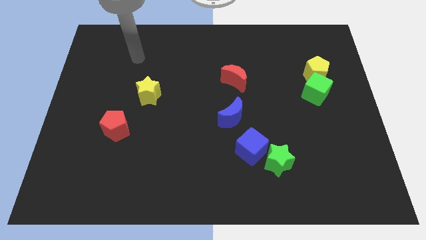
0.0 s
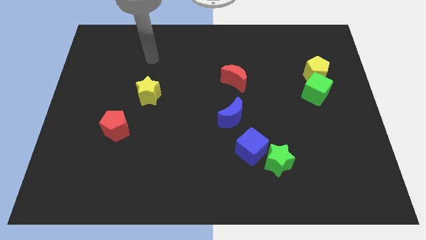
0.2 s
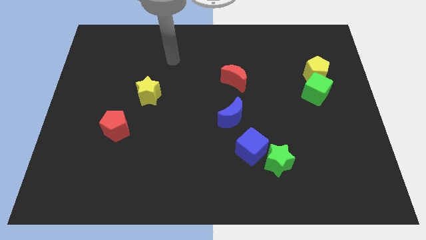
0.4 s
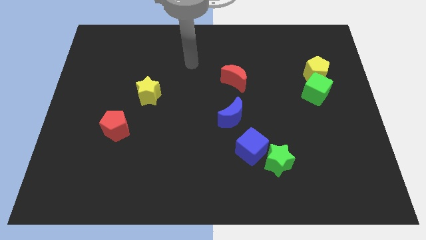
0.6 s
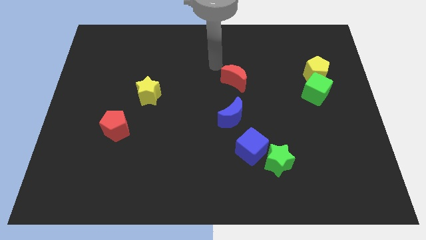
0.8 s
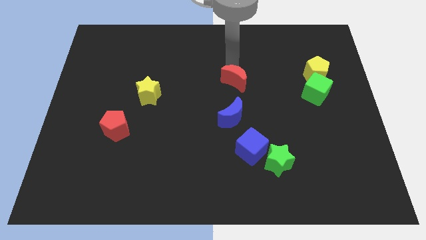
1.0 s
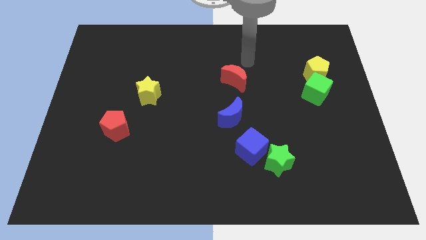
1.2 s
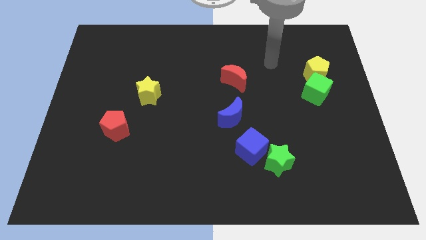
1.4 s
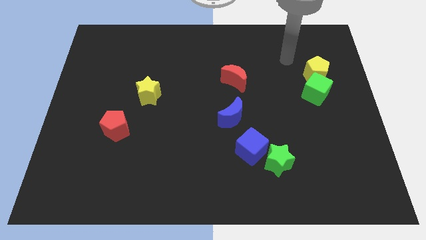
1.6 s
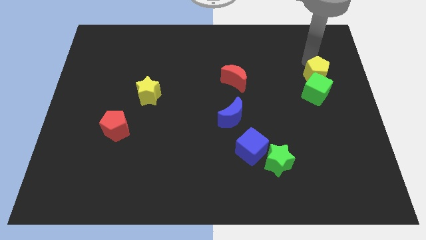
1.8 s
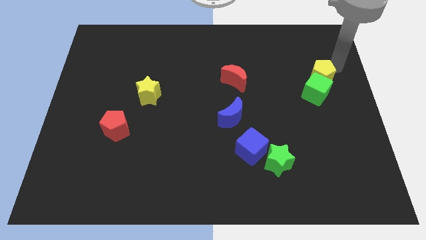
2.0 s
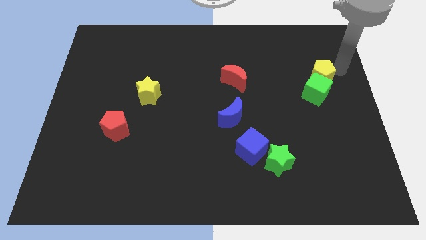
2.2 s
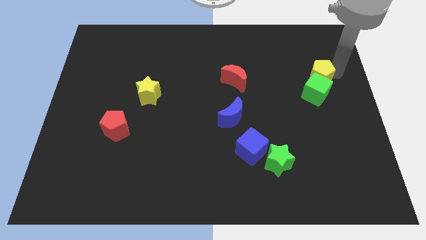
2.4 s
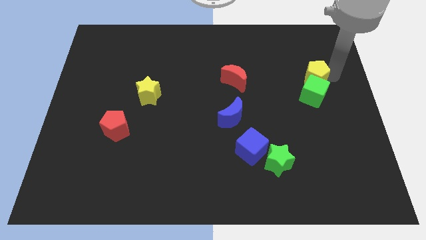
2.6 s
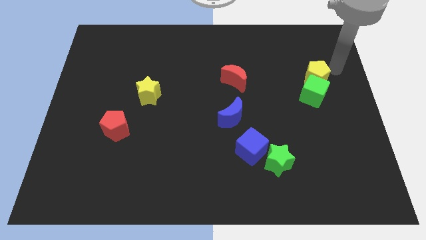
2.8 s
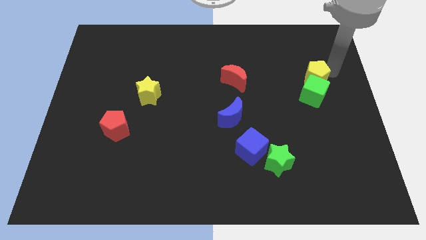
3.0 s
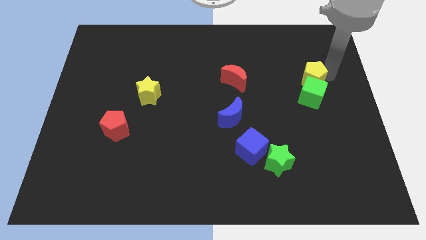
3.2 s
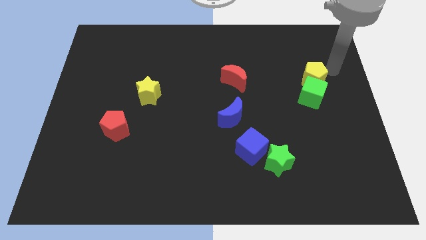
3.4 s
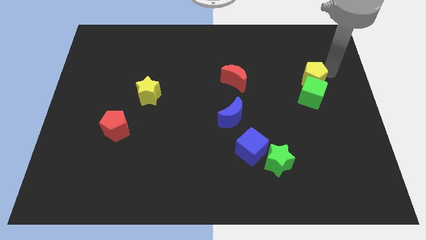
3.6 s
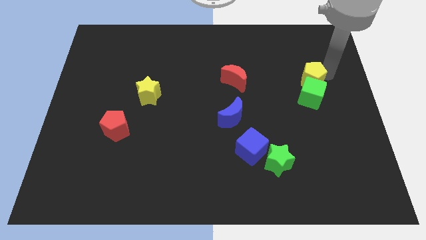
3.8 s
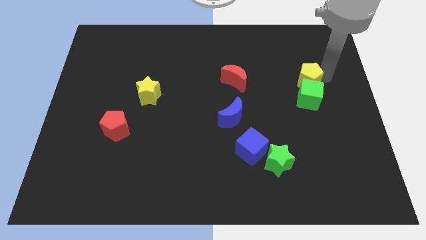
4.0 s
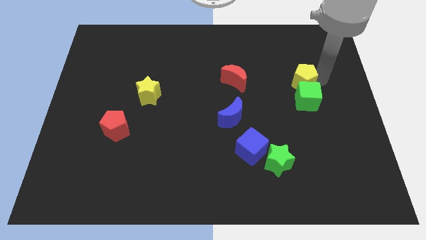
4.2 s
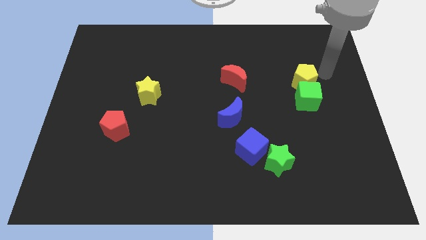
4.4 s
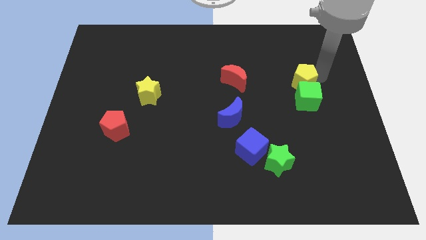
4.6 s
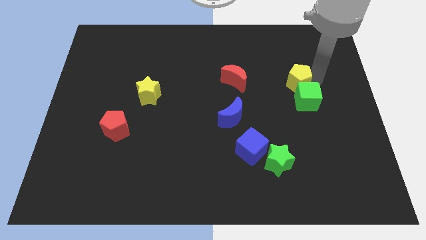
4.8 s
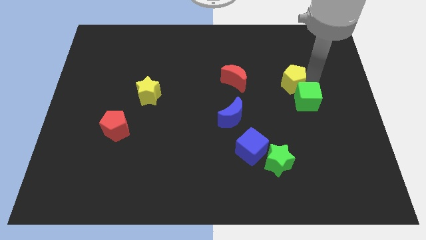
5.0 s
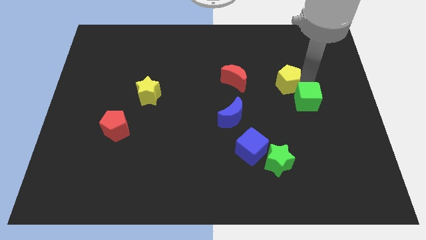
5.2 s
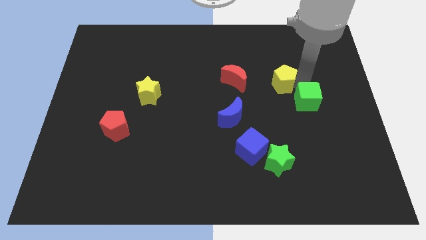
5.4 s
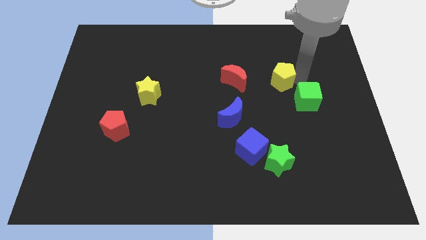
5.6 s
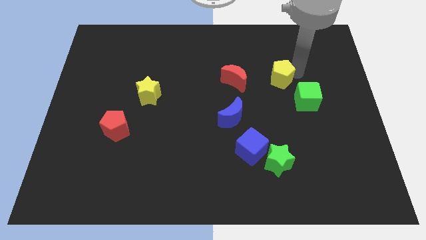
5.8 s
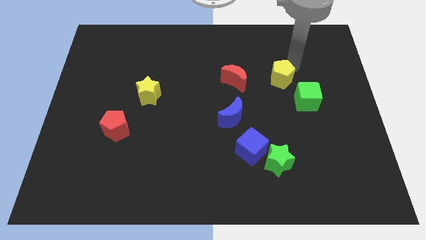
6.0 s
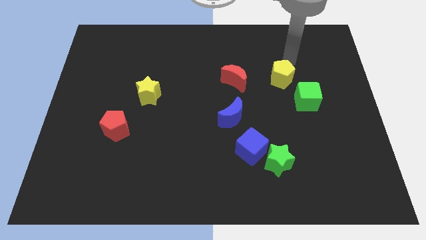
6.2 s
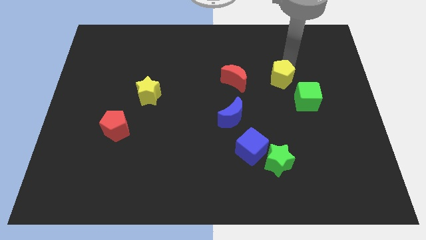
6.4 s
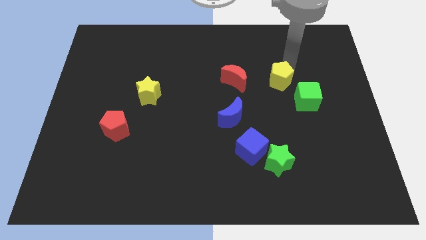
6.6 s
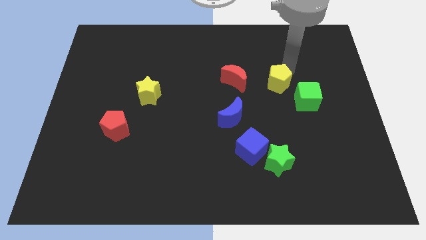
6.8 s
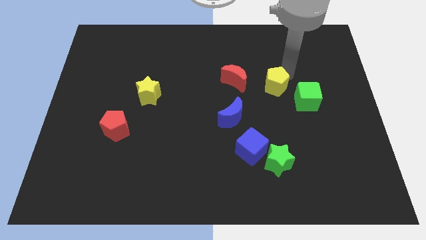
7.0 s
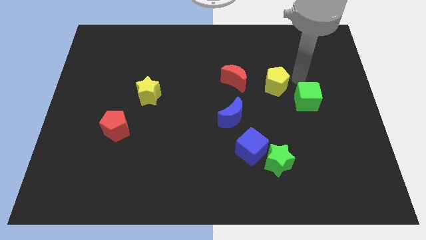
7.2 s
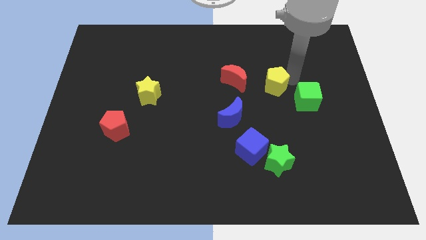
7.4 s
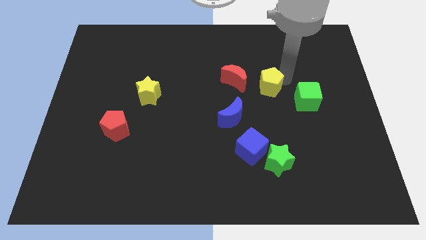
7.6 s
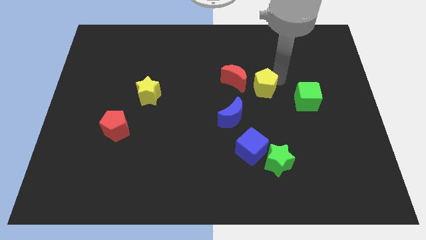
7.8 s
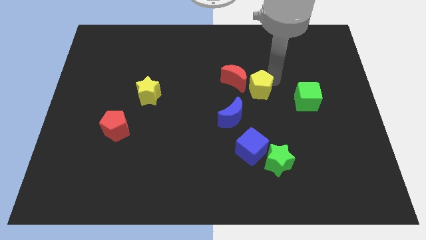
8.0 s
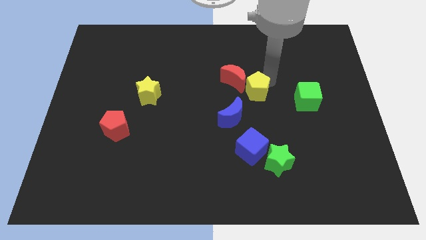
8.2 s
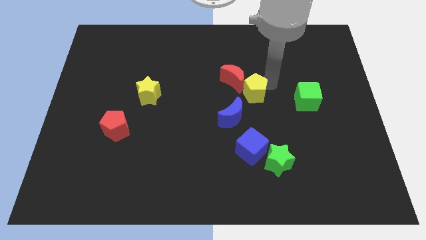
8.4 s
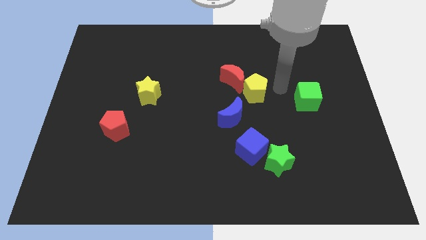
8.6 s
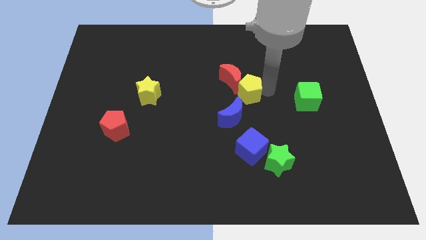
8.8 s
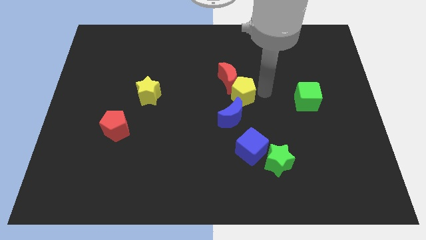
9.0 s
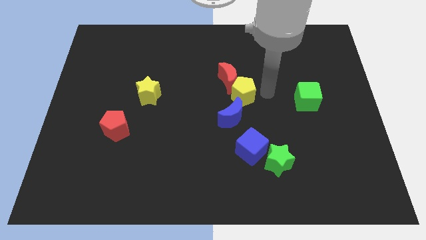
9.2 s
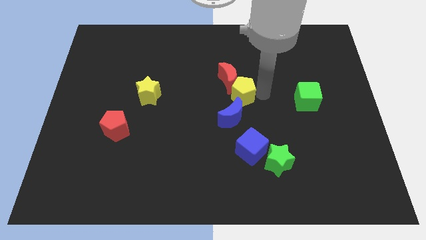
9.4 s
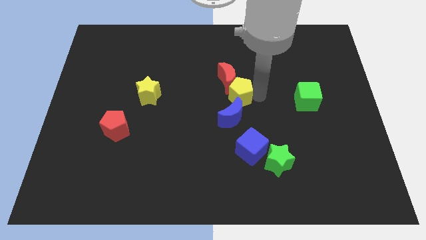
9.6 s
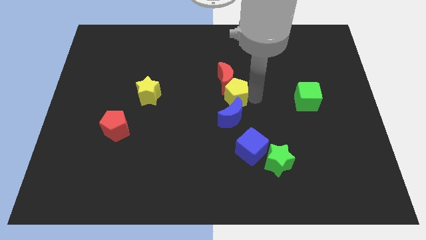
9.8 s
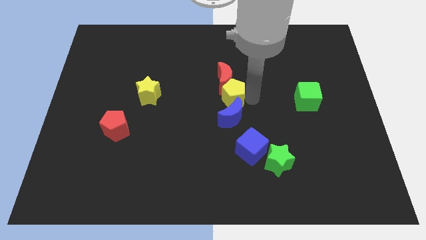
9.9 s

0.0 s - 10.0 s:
push the yellow pentagon to the top left of the blue moon

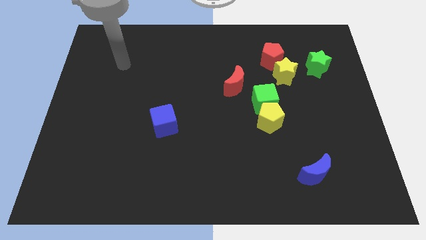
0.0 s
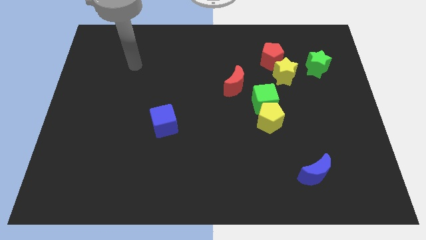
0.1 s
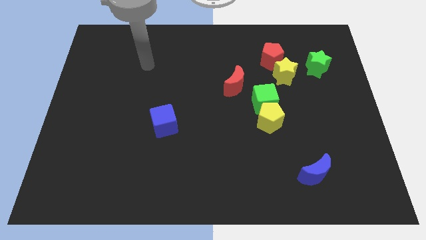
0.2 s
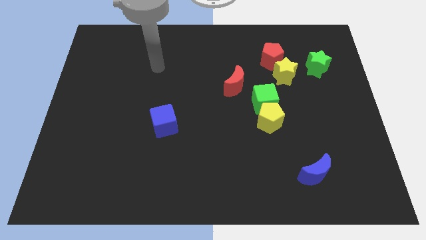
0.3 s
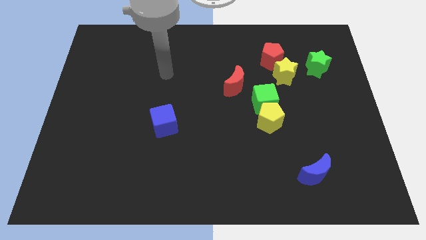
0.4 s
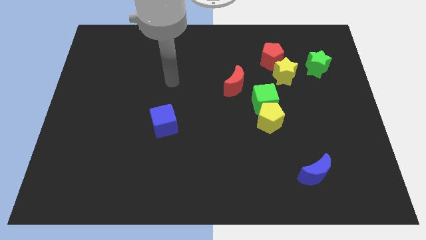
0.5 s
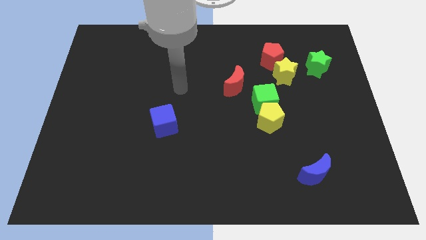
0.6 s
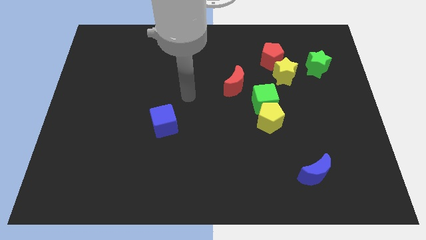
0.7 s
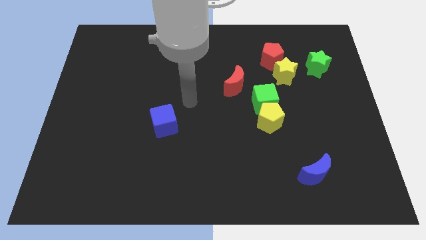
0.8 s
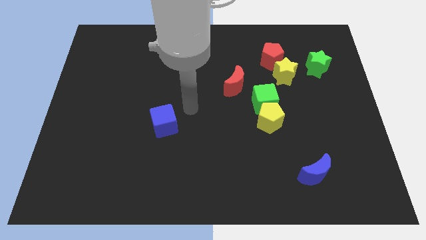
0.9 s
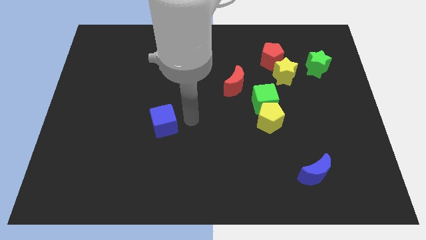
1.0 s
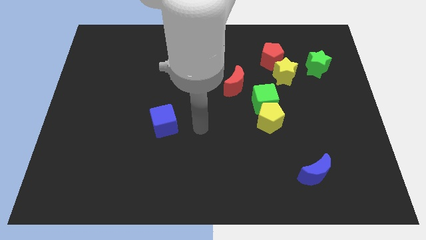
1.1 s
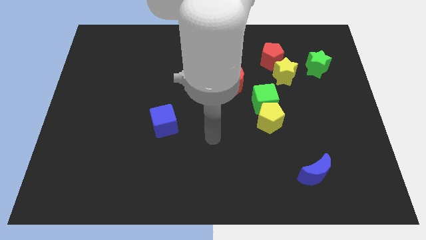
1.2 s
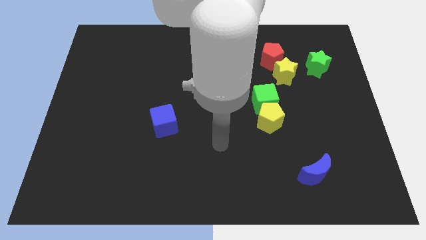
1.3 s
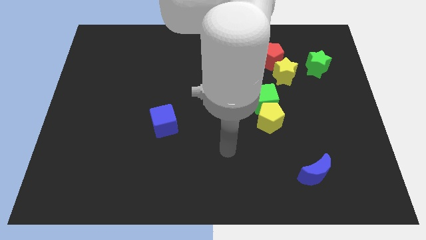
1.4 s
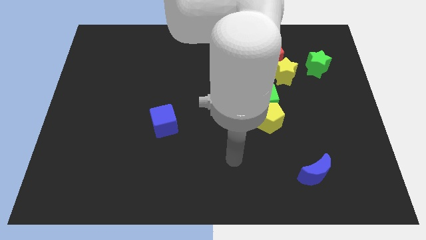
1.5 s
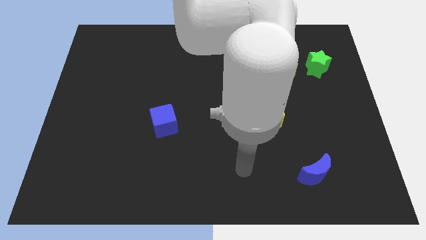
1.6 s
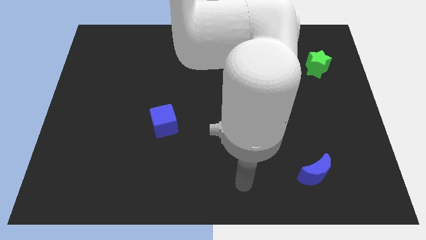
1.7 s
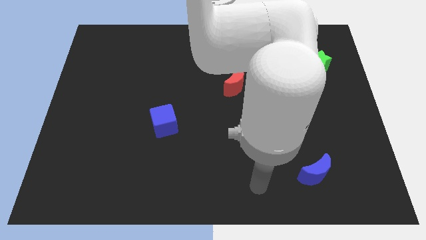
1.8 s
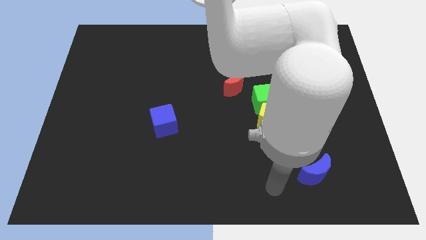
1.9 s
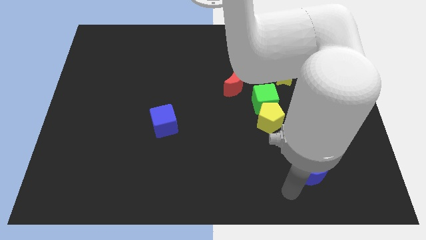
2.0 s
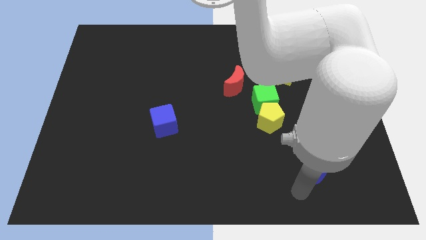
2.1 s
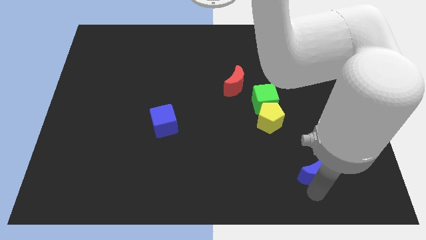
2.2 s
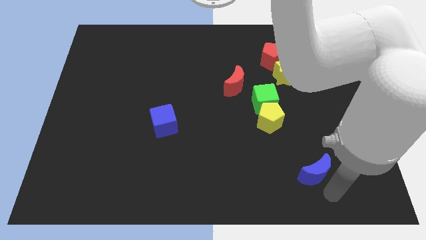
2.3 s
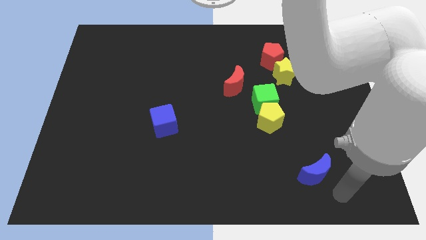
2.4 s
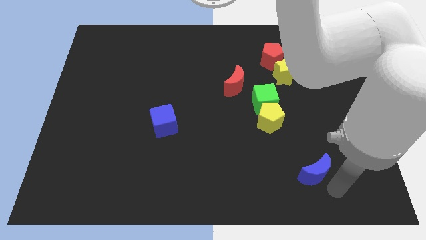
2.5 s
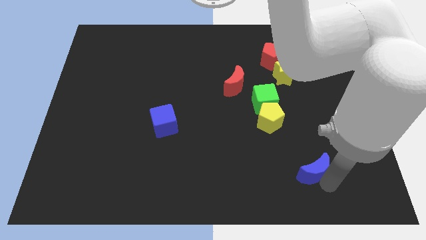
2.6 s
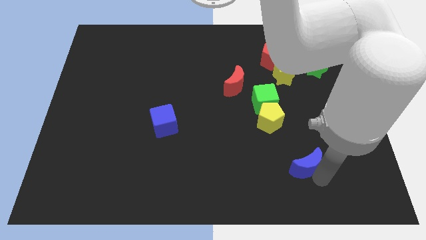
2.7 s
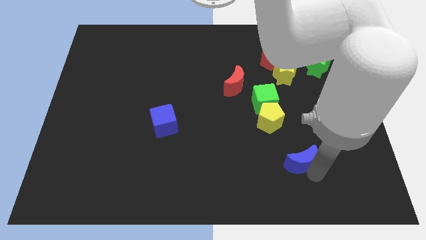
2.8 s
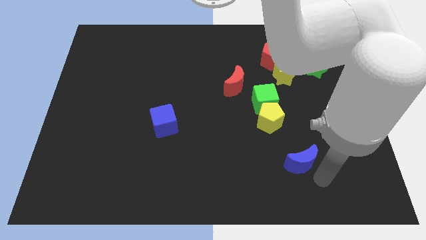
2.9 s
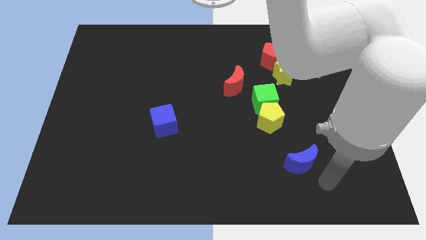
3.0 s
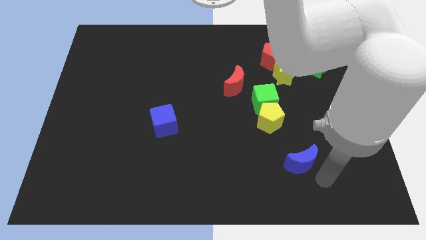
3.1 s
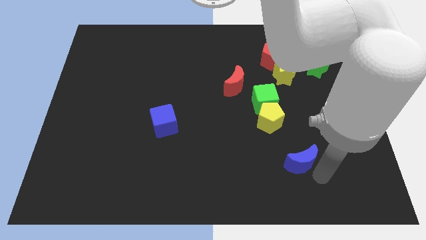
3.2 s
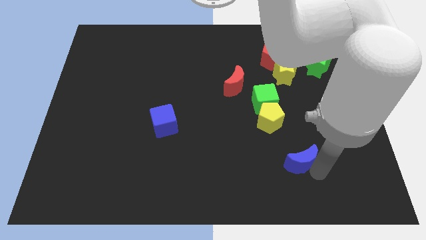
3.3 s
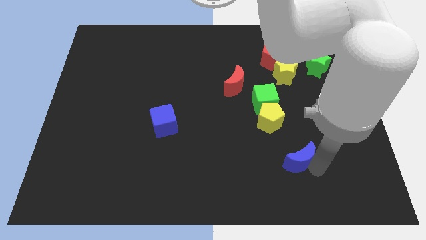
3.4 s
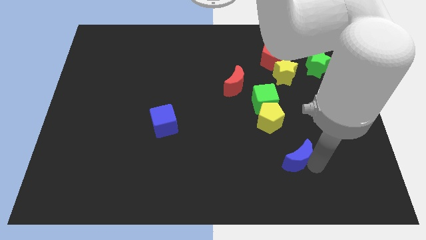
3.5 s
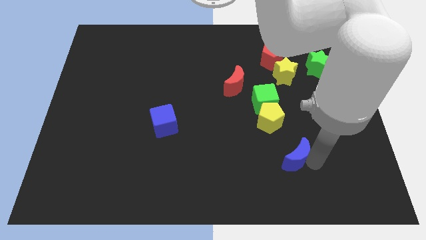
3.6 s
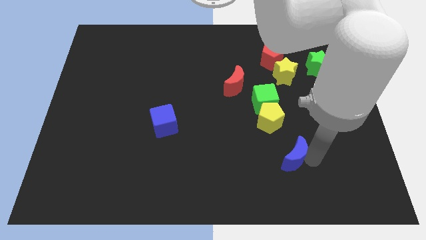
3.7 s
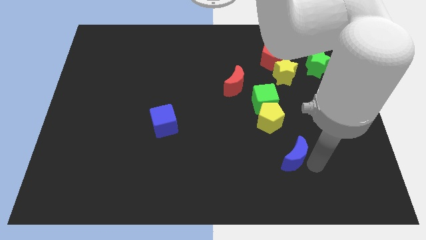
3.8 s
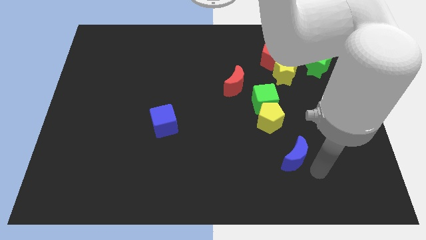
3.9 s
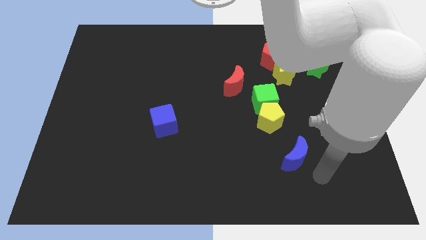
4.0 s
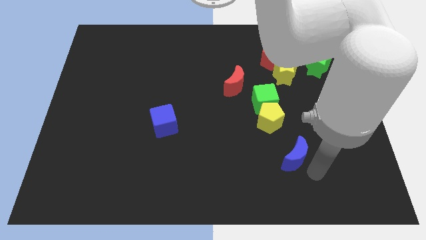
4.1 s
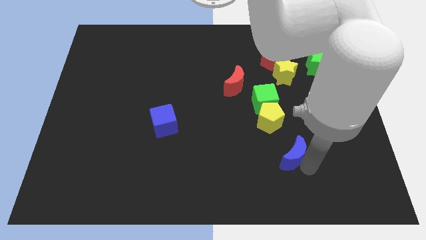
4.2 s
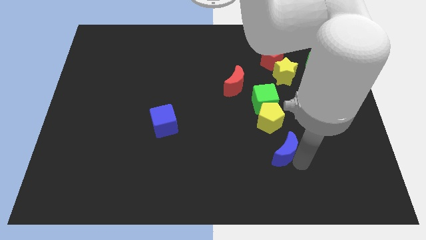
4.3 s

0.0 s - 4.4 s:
push the blue moon below the green cube
